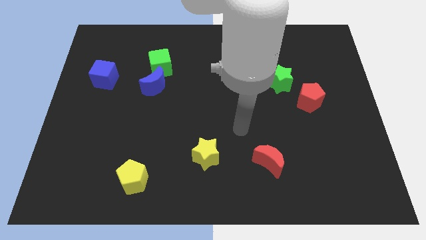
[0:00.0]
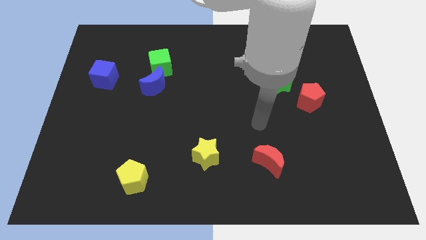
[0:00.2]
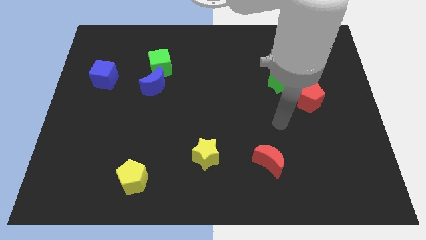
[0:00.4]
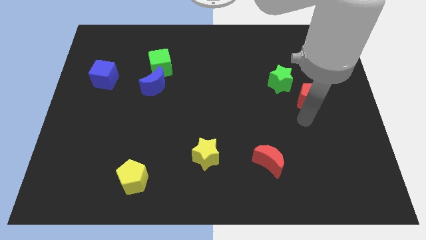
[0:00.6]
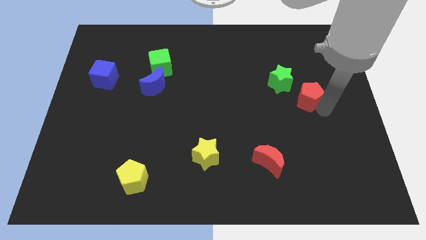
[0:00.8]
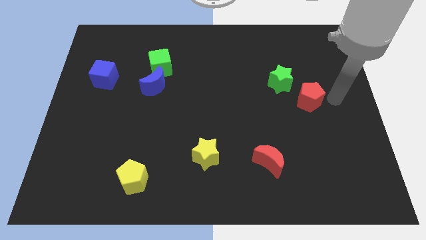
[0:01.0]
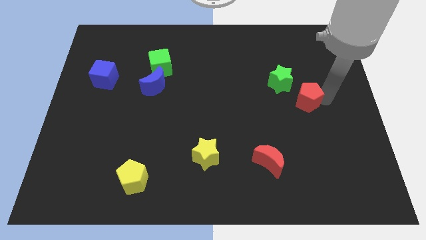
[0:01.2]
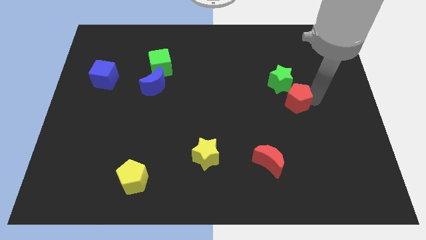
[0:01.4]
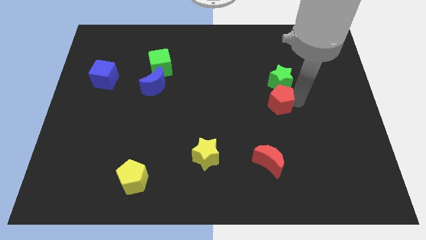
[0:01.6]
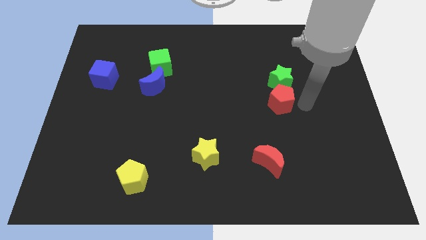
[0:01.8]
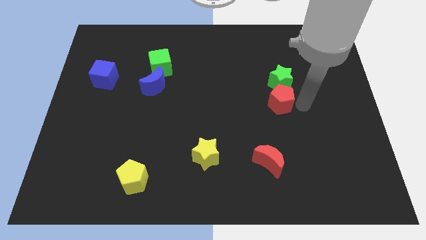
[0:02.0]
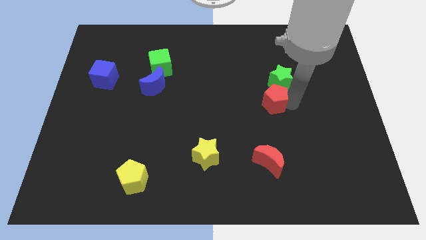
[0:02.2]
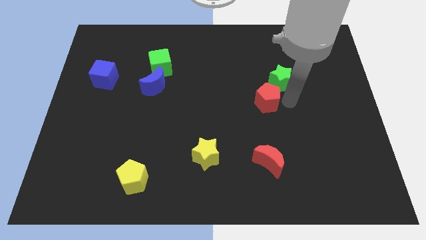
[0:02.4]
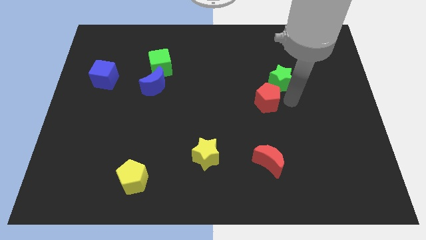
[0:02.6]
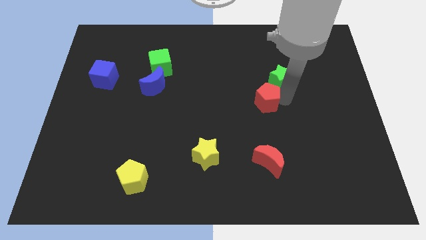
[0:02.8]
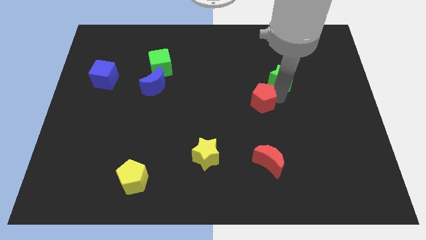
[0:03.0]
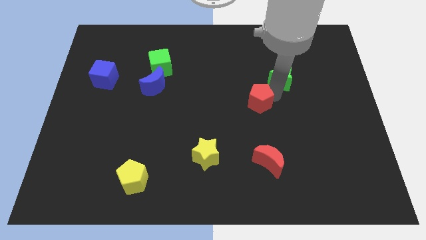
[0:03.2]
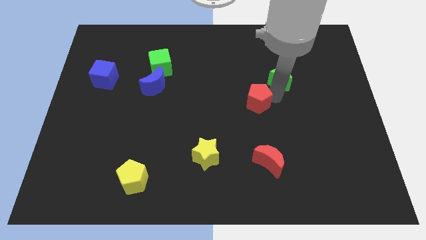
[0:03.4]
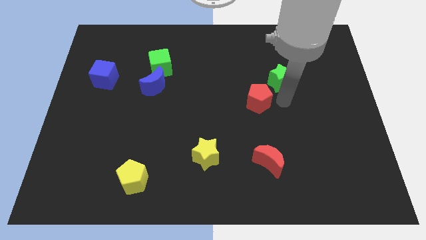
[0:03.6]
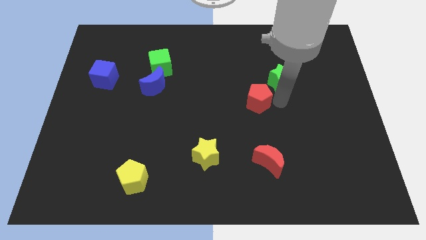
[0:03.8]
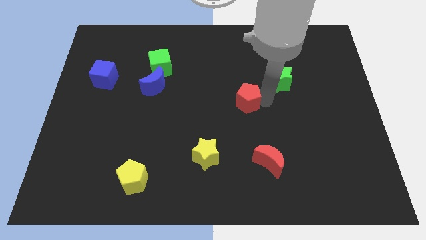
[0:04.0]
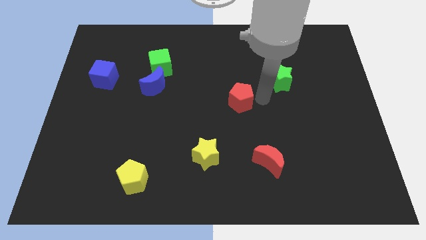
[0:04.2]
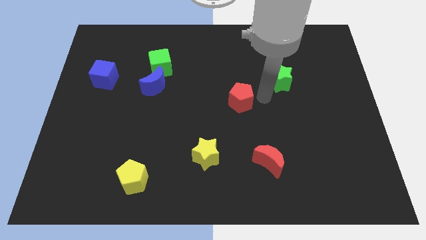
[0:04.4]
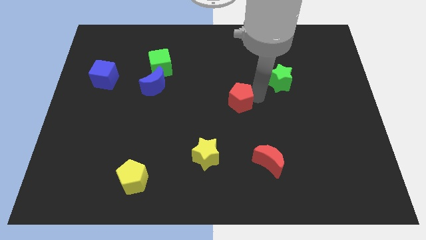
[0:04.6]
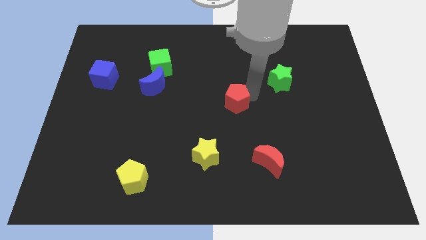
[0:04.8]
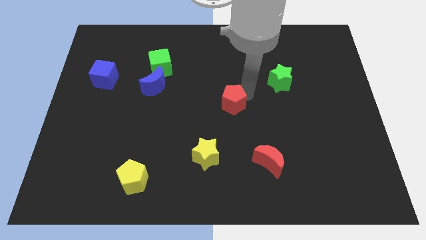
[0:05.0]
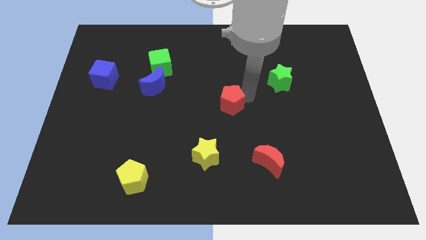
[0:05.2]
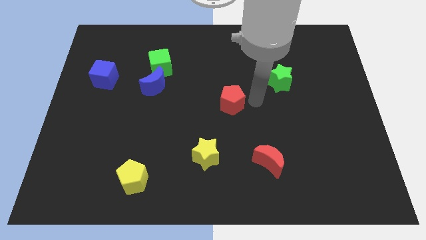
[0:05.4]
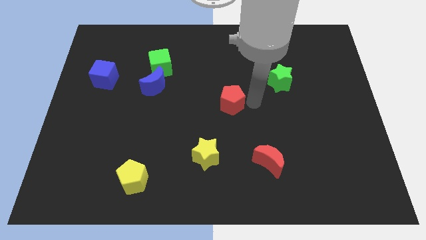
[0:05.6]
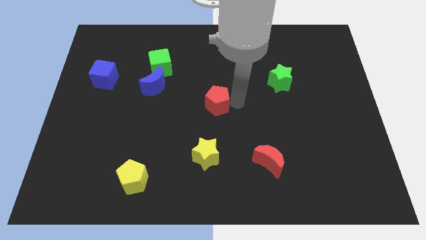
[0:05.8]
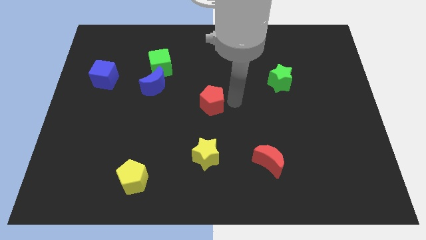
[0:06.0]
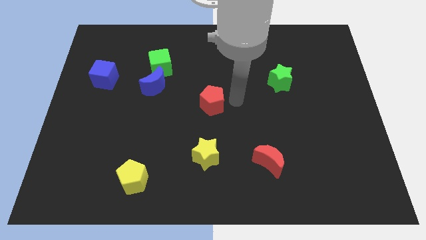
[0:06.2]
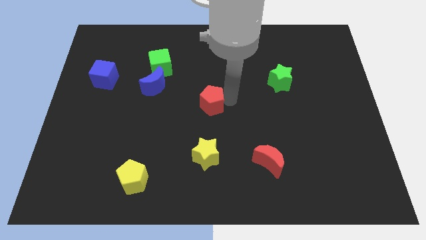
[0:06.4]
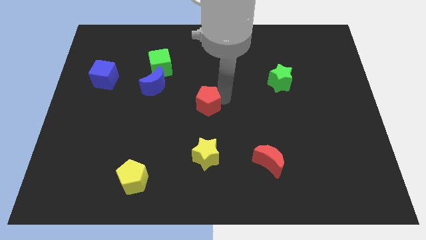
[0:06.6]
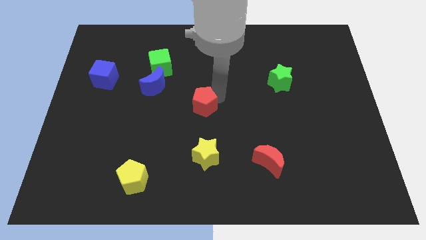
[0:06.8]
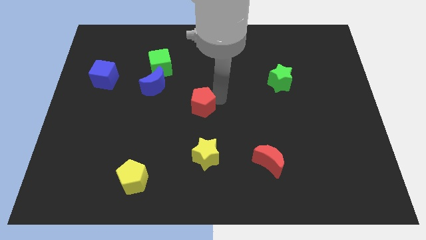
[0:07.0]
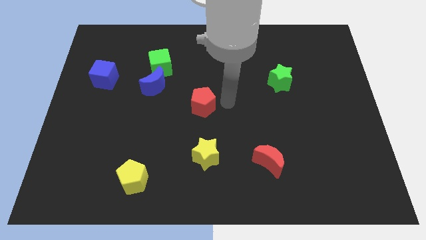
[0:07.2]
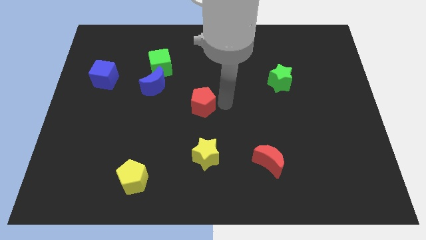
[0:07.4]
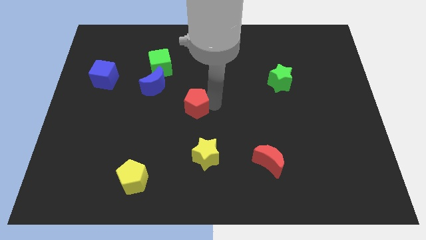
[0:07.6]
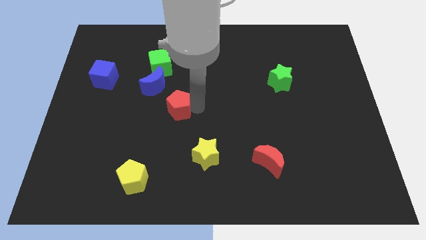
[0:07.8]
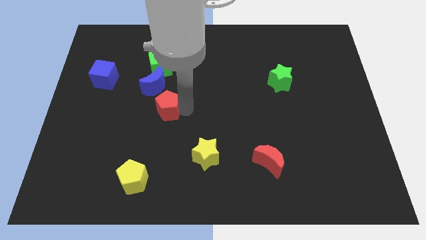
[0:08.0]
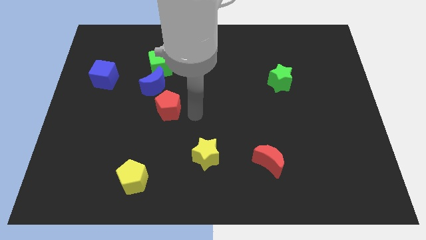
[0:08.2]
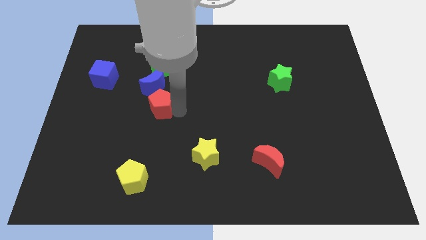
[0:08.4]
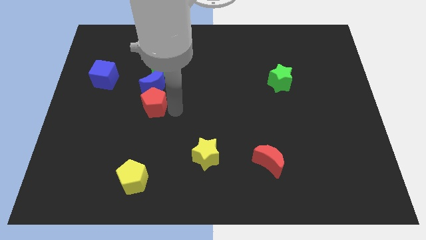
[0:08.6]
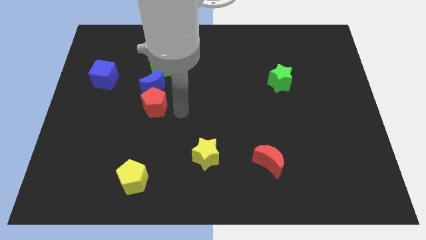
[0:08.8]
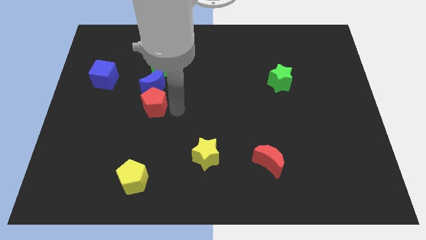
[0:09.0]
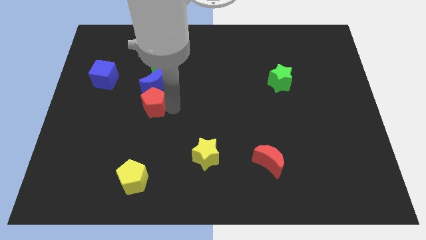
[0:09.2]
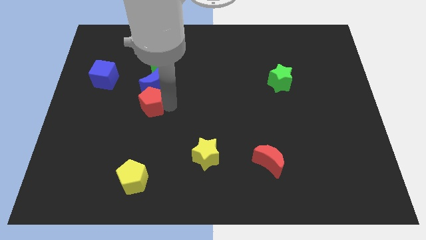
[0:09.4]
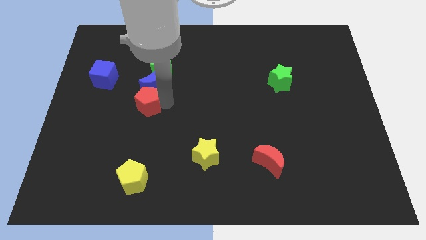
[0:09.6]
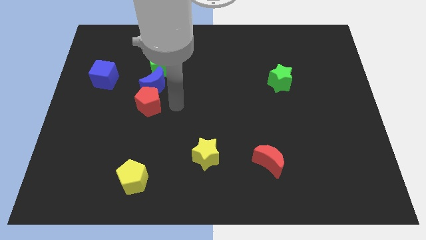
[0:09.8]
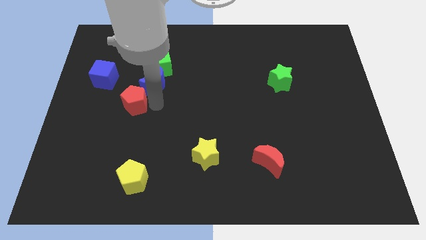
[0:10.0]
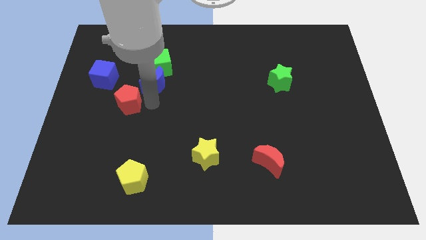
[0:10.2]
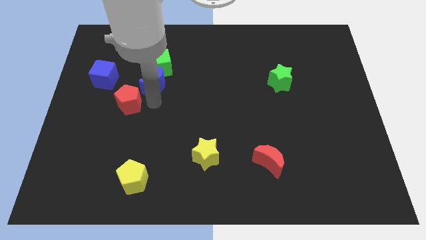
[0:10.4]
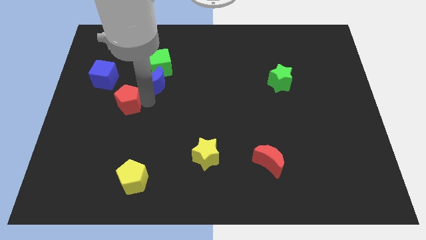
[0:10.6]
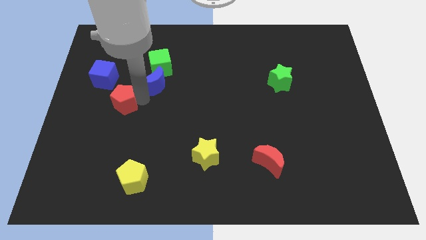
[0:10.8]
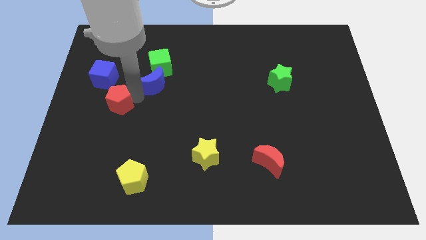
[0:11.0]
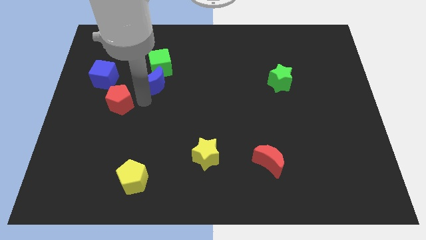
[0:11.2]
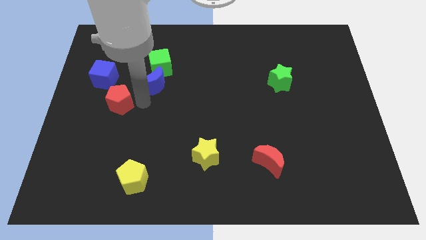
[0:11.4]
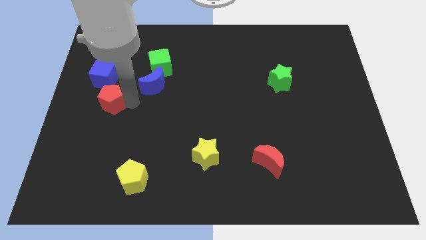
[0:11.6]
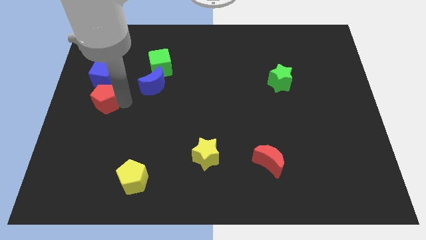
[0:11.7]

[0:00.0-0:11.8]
slide the red pentagon to the left side
